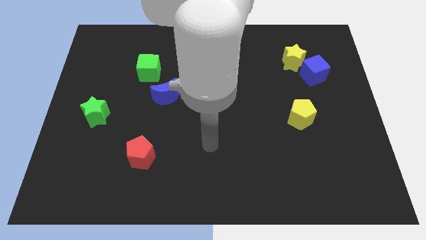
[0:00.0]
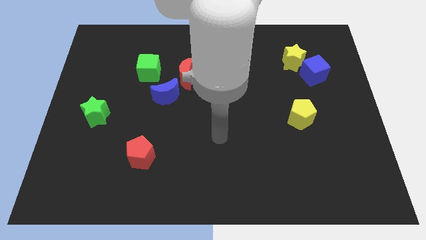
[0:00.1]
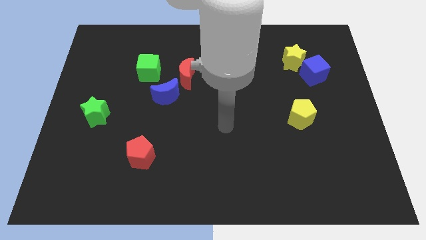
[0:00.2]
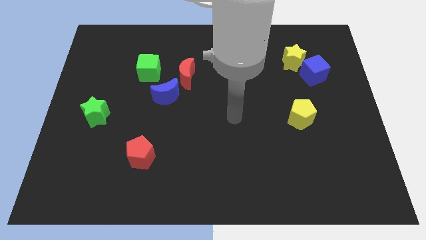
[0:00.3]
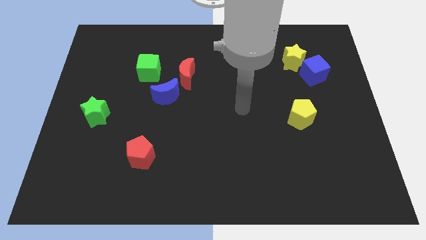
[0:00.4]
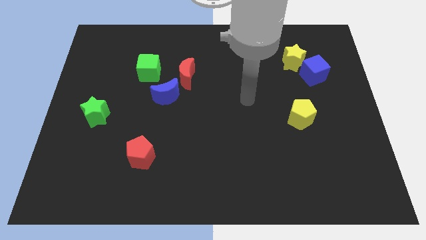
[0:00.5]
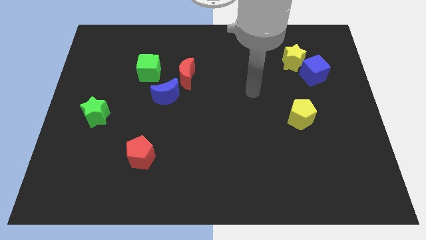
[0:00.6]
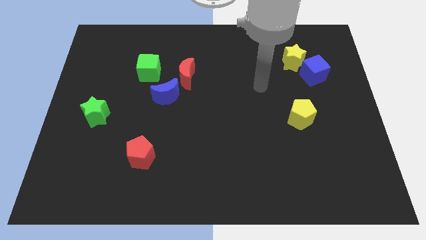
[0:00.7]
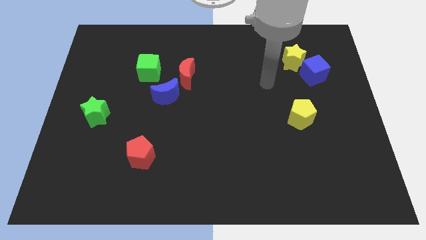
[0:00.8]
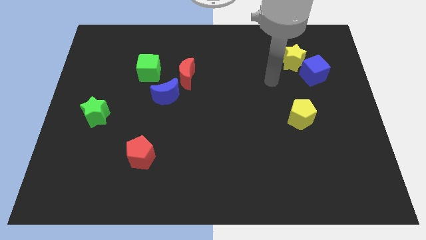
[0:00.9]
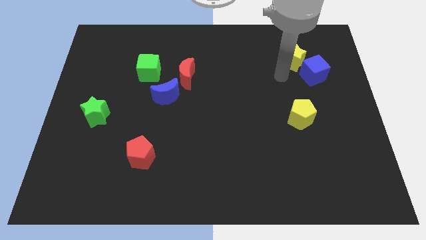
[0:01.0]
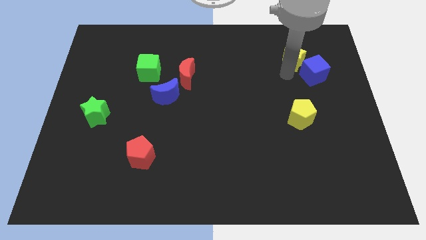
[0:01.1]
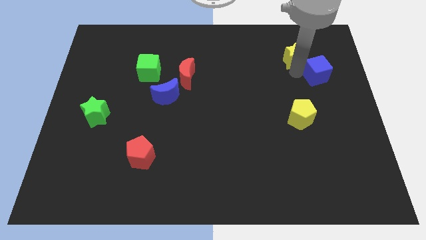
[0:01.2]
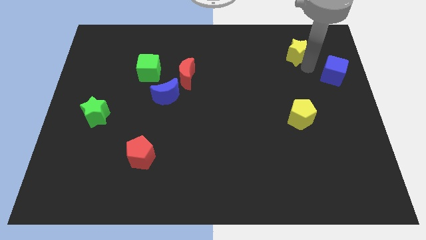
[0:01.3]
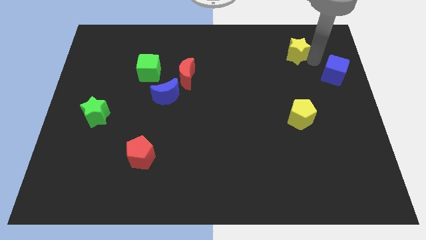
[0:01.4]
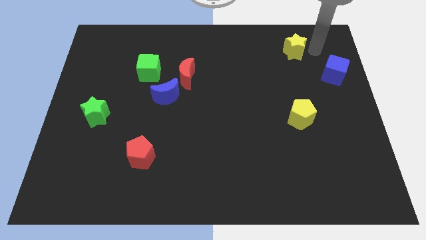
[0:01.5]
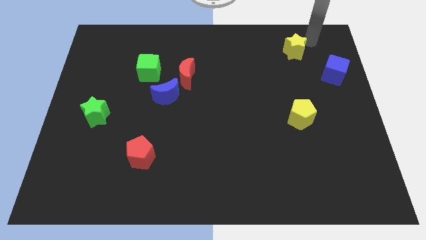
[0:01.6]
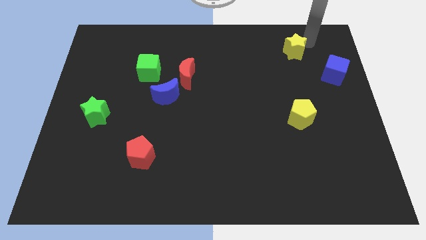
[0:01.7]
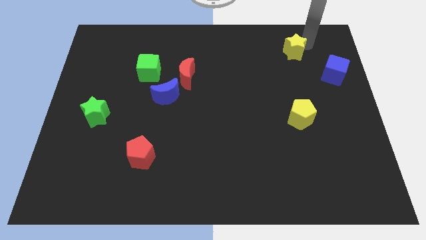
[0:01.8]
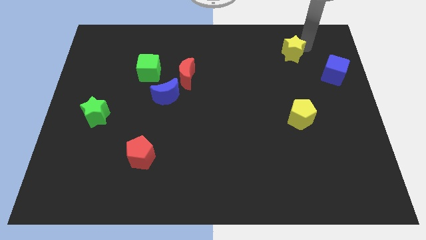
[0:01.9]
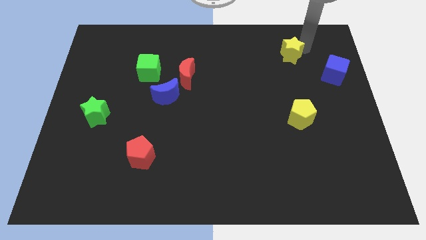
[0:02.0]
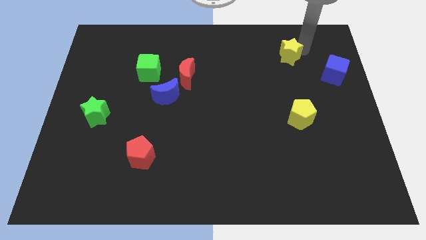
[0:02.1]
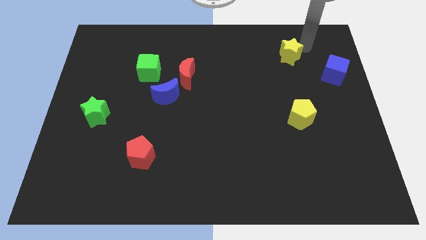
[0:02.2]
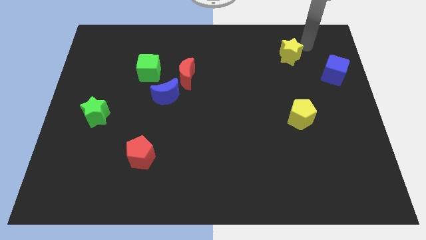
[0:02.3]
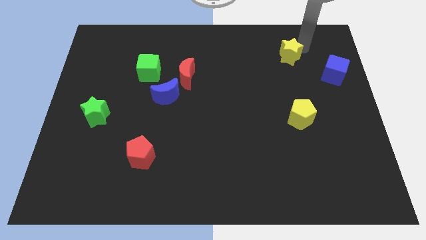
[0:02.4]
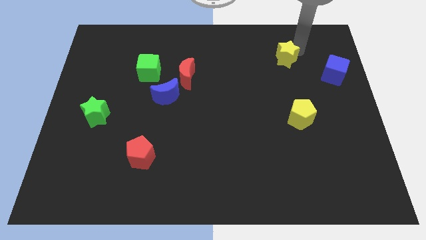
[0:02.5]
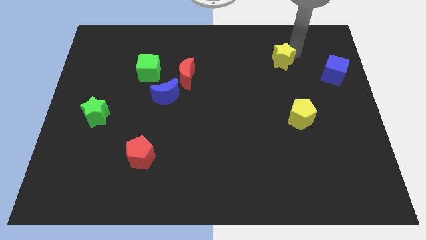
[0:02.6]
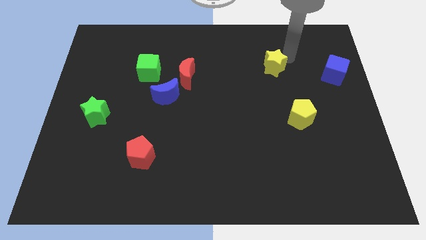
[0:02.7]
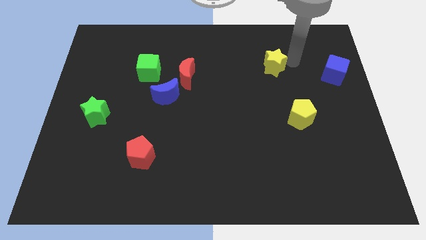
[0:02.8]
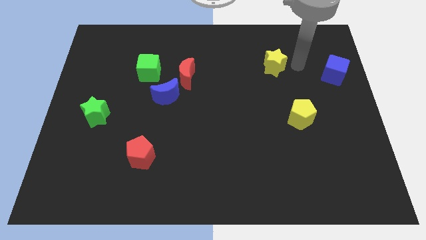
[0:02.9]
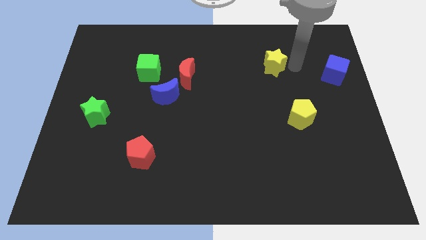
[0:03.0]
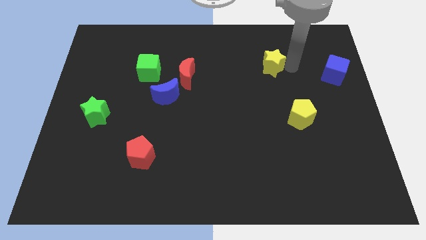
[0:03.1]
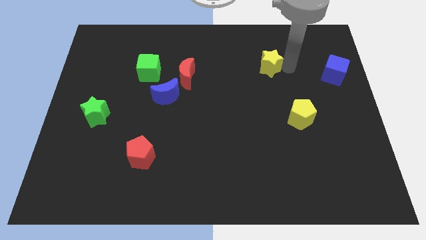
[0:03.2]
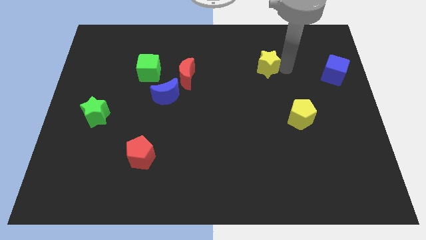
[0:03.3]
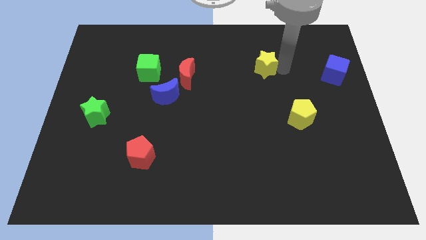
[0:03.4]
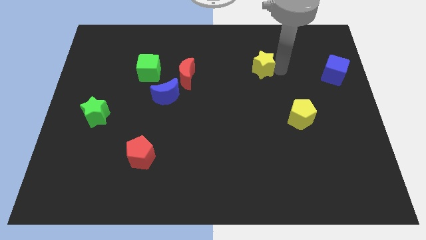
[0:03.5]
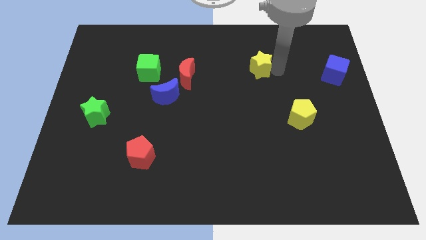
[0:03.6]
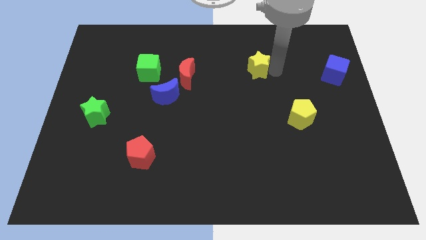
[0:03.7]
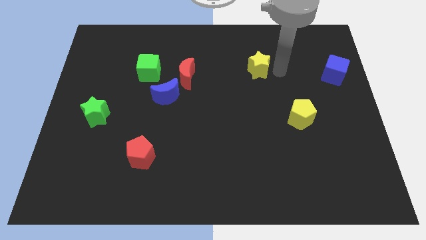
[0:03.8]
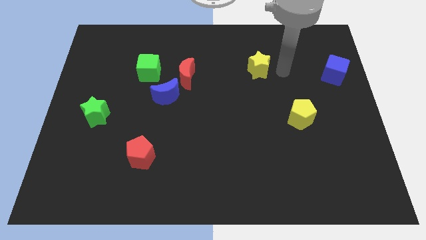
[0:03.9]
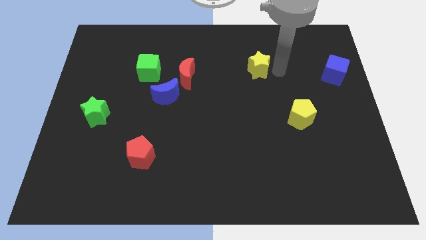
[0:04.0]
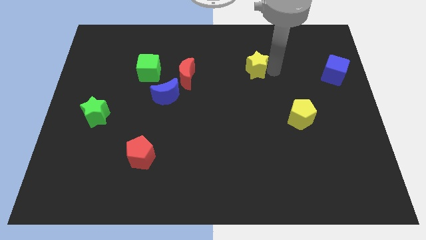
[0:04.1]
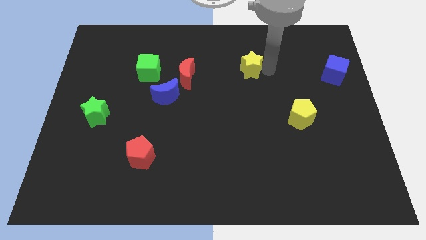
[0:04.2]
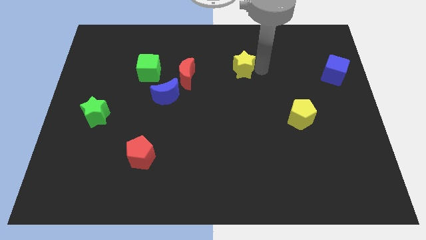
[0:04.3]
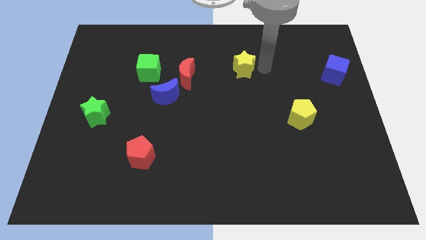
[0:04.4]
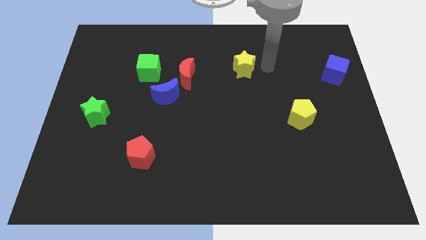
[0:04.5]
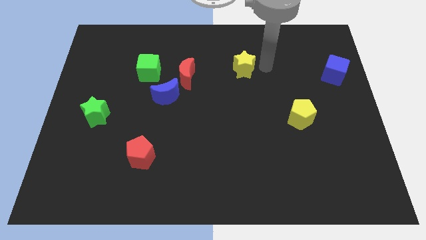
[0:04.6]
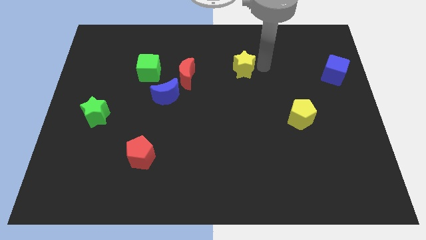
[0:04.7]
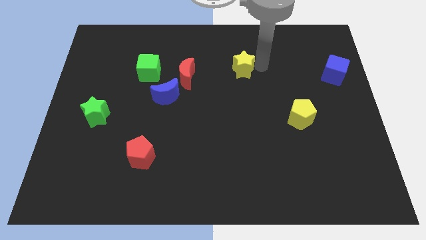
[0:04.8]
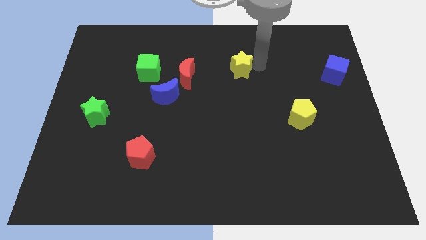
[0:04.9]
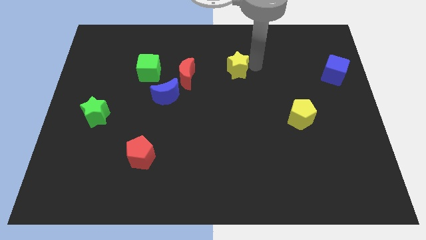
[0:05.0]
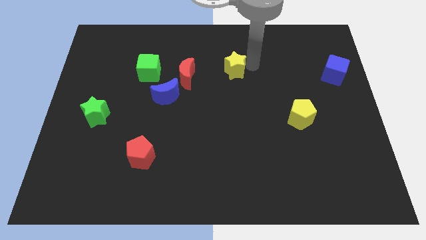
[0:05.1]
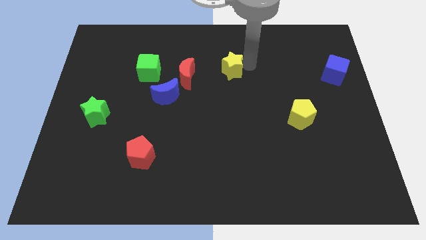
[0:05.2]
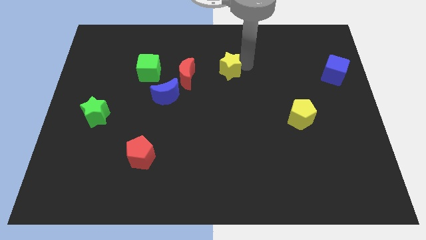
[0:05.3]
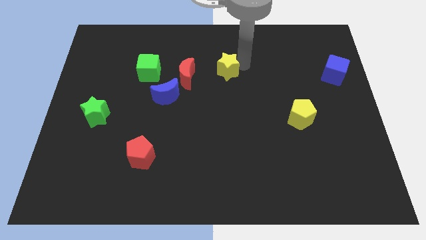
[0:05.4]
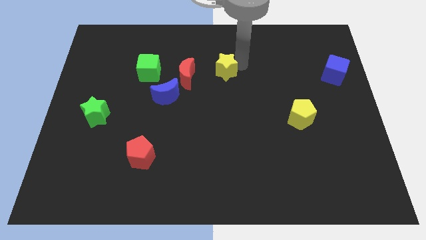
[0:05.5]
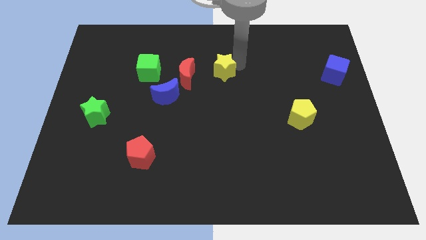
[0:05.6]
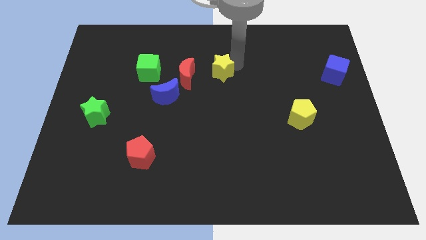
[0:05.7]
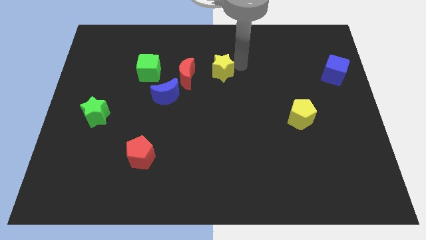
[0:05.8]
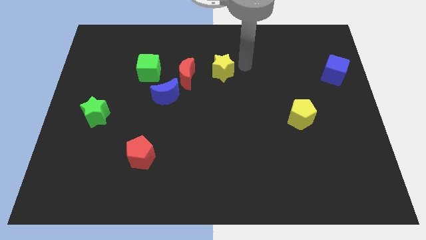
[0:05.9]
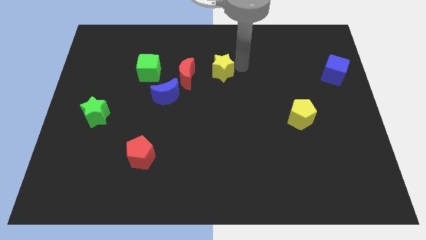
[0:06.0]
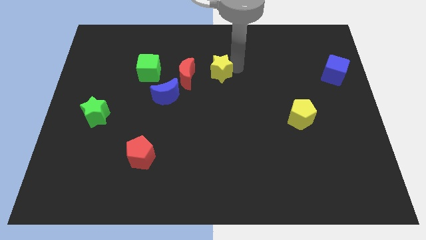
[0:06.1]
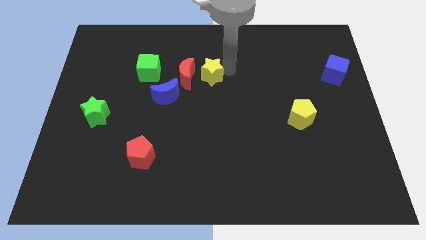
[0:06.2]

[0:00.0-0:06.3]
move the yellow star next to the red moon

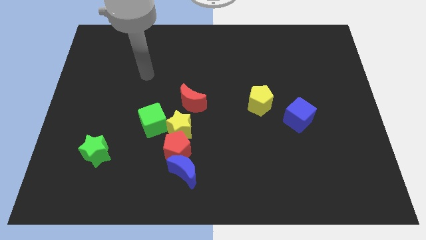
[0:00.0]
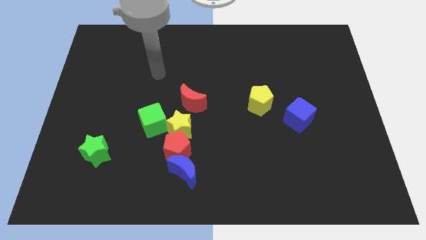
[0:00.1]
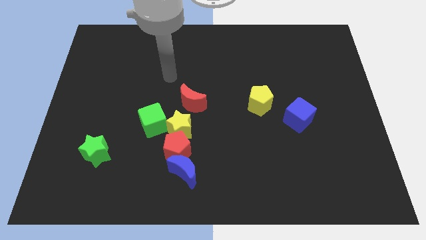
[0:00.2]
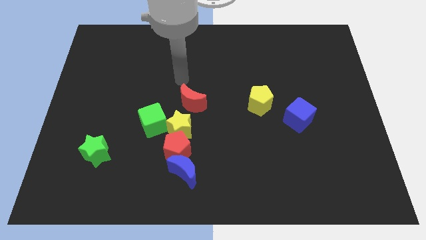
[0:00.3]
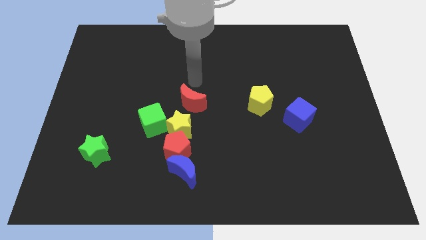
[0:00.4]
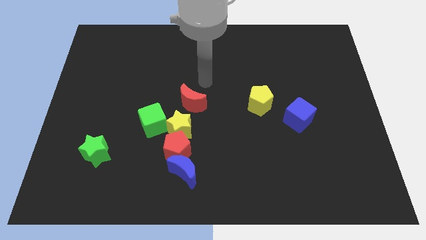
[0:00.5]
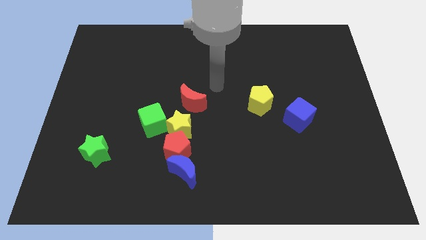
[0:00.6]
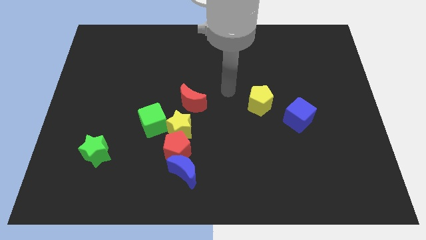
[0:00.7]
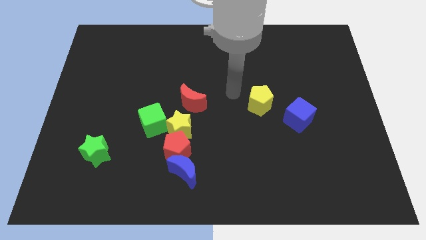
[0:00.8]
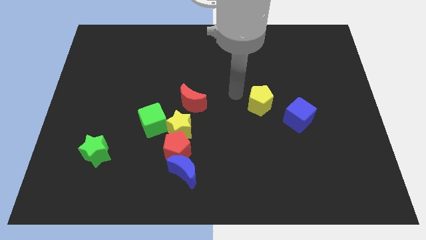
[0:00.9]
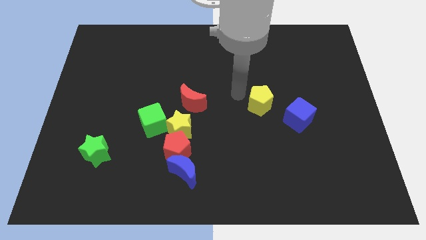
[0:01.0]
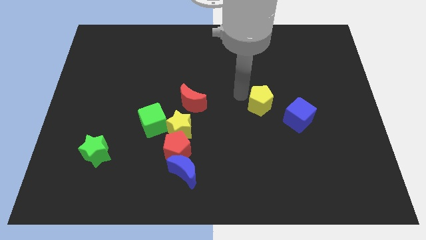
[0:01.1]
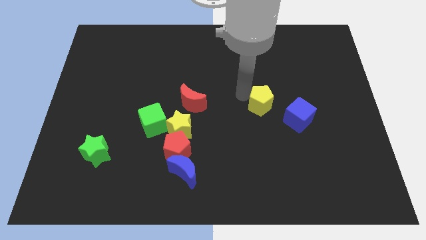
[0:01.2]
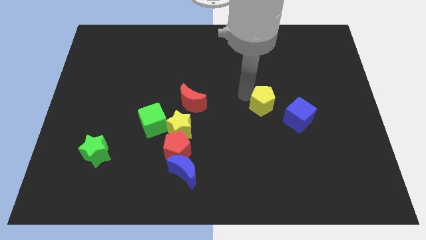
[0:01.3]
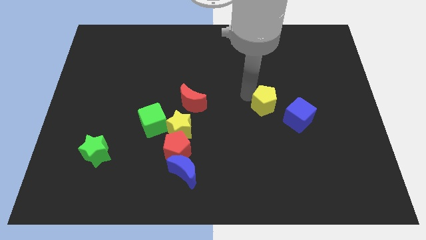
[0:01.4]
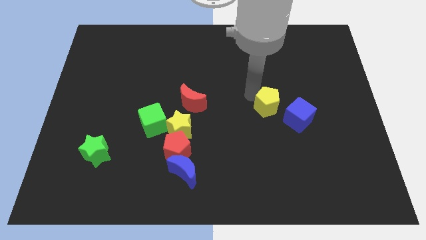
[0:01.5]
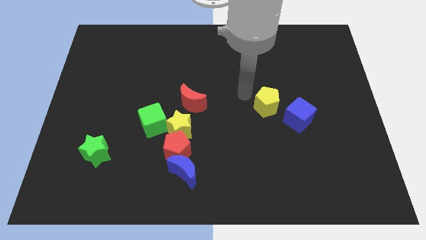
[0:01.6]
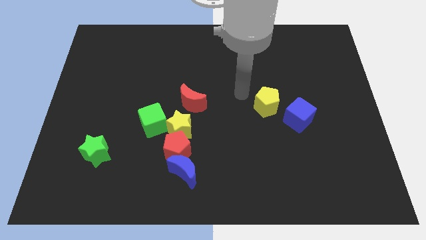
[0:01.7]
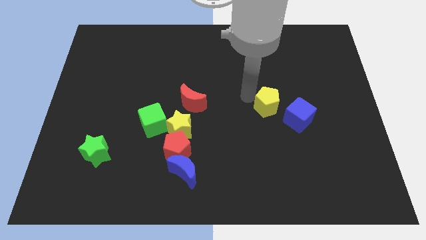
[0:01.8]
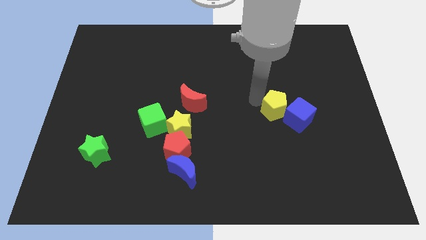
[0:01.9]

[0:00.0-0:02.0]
put the yellow pentagon close to the blue cube
